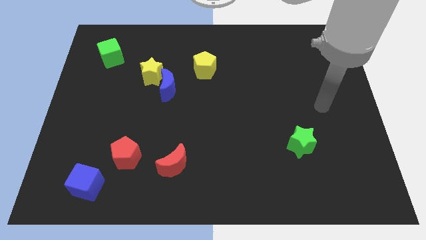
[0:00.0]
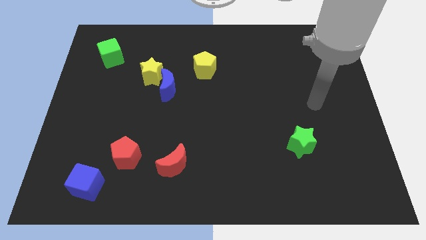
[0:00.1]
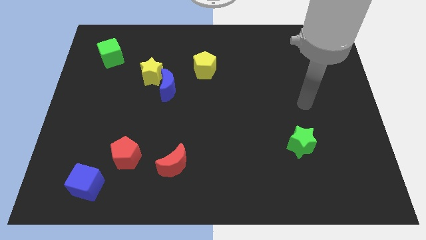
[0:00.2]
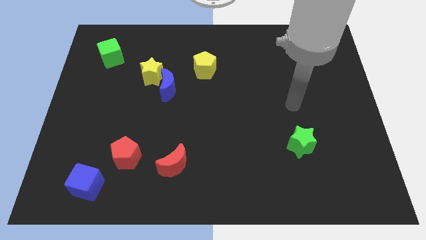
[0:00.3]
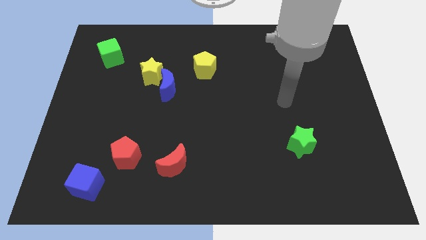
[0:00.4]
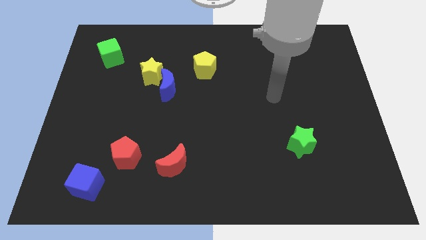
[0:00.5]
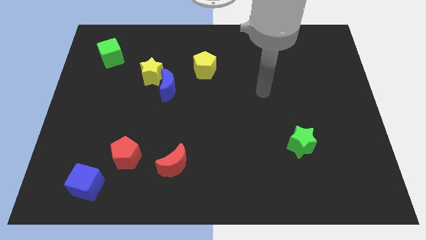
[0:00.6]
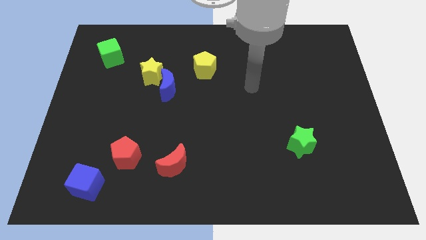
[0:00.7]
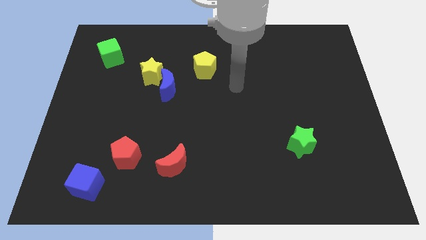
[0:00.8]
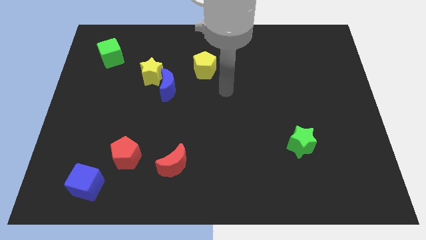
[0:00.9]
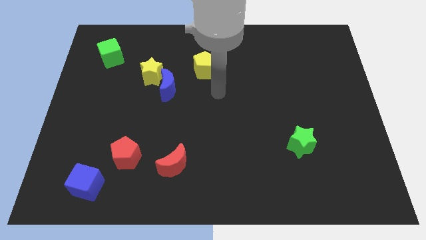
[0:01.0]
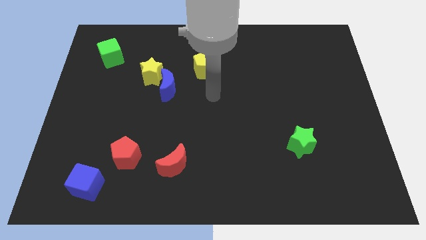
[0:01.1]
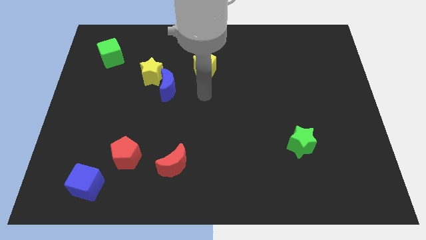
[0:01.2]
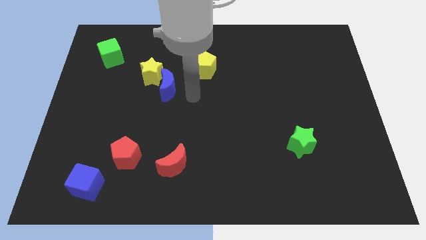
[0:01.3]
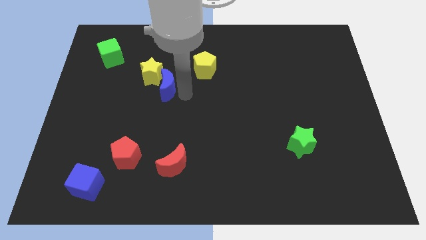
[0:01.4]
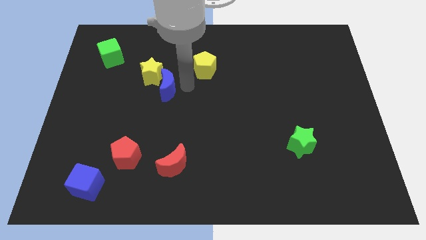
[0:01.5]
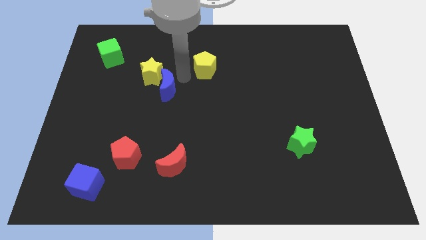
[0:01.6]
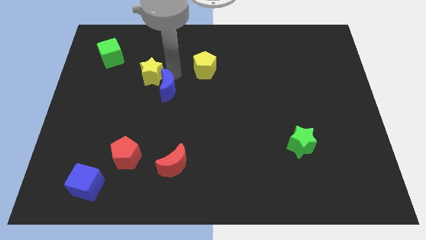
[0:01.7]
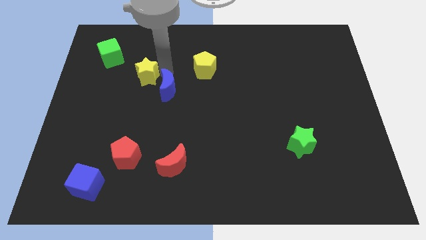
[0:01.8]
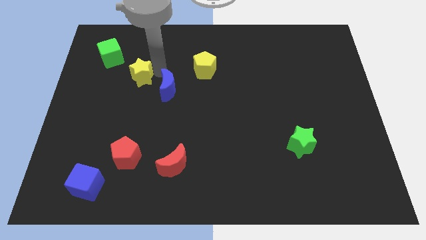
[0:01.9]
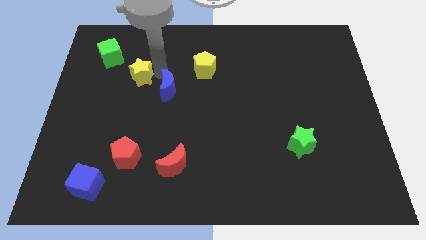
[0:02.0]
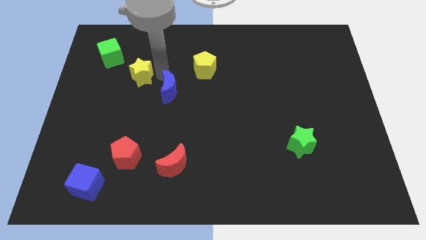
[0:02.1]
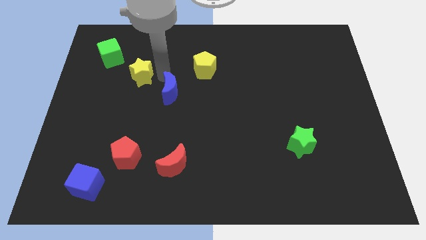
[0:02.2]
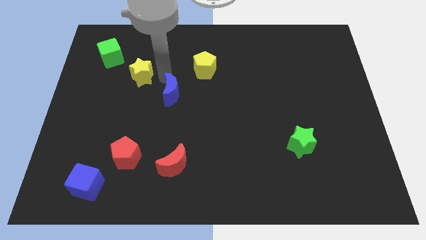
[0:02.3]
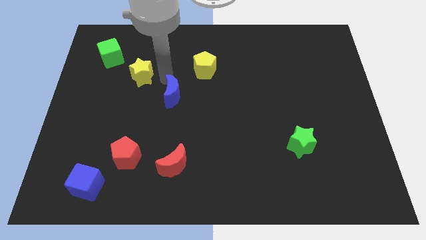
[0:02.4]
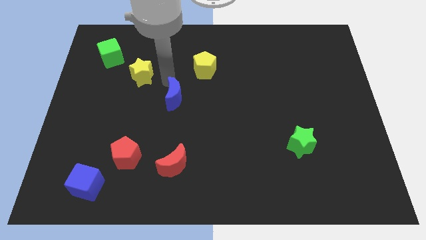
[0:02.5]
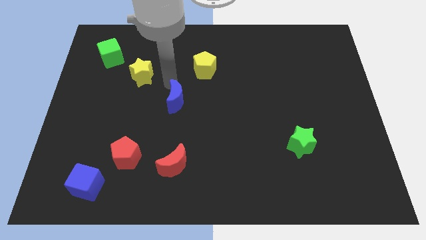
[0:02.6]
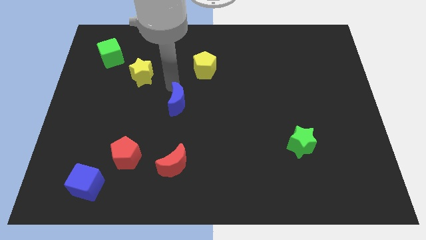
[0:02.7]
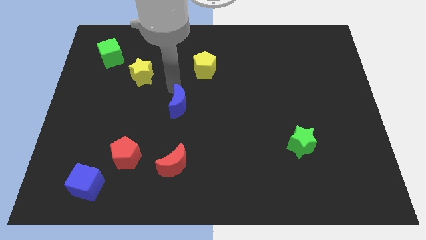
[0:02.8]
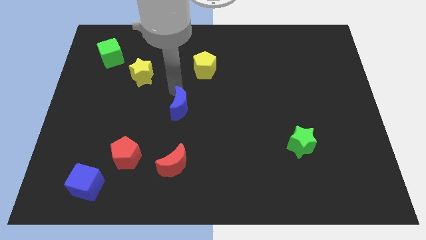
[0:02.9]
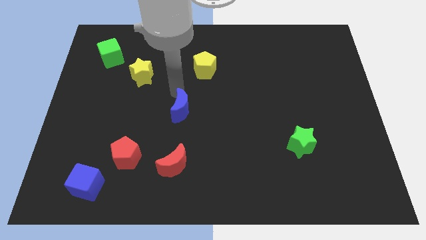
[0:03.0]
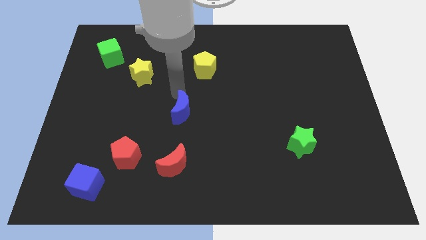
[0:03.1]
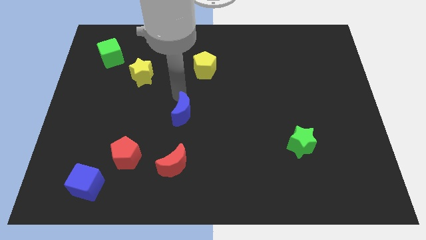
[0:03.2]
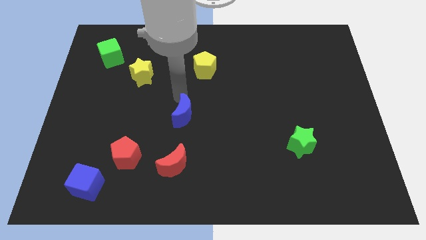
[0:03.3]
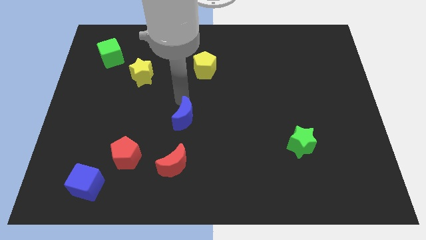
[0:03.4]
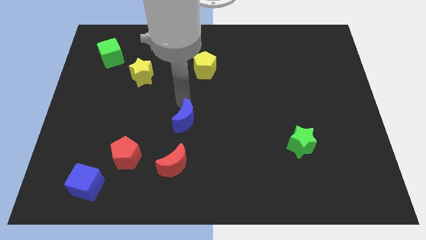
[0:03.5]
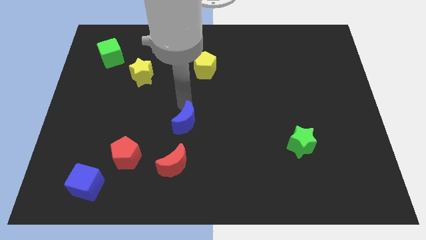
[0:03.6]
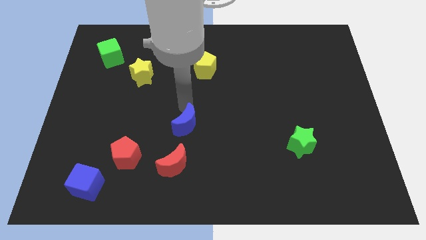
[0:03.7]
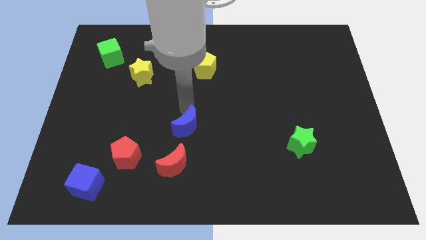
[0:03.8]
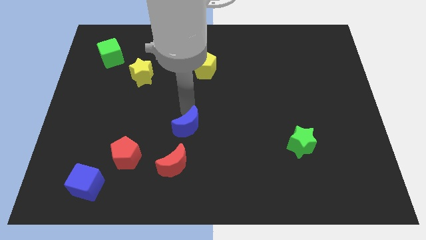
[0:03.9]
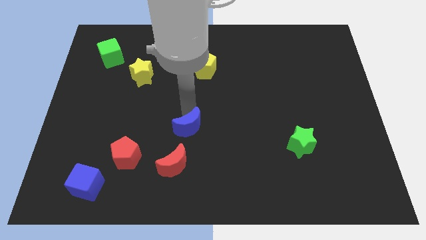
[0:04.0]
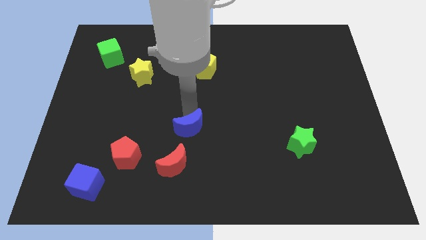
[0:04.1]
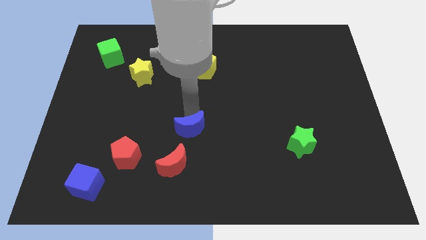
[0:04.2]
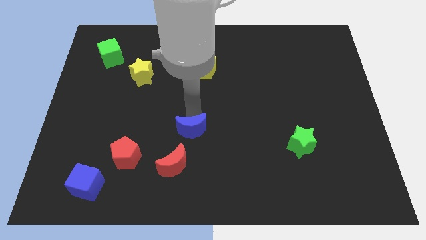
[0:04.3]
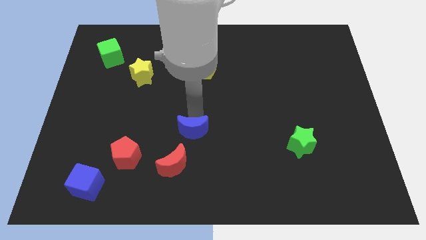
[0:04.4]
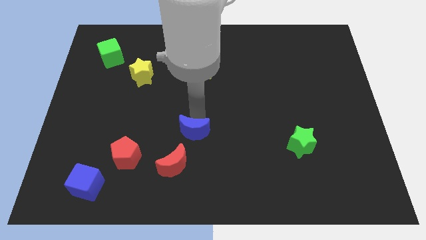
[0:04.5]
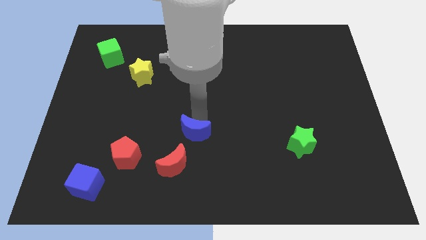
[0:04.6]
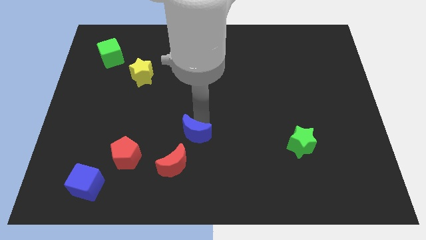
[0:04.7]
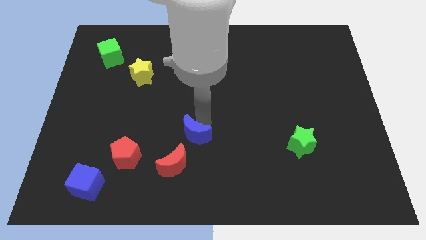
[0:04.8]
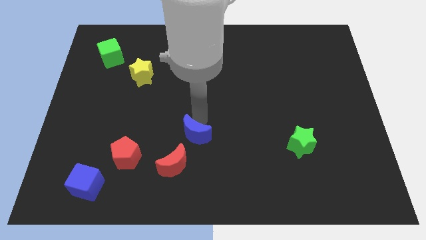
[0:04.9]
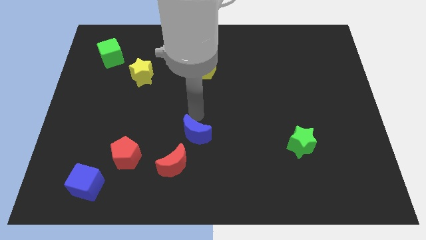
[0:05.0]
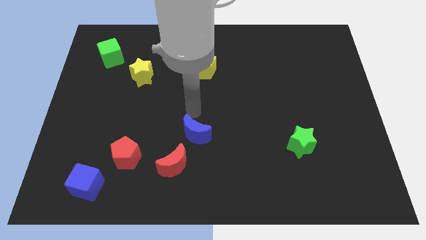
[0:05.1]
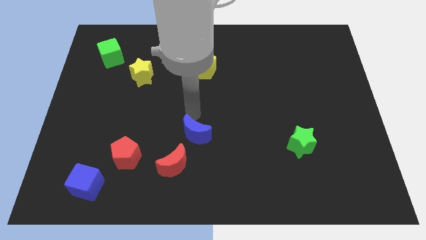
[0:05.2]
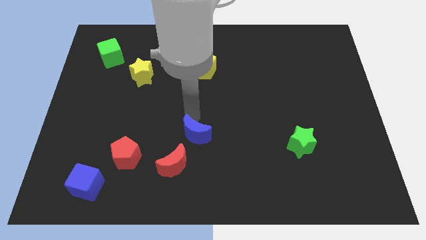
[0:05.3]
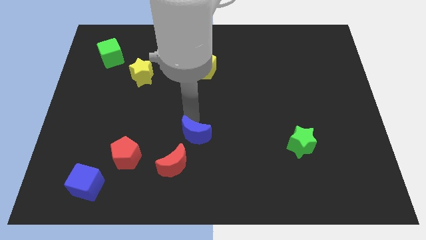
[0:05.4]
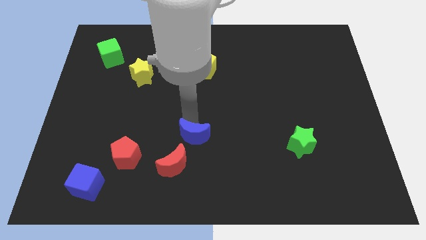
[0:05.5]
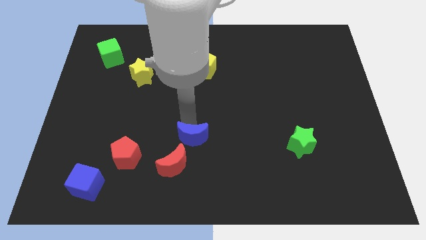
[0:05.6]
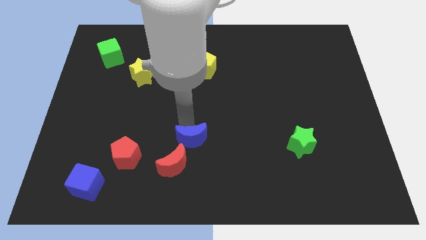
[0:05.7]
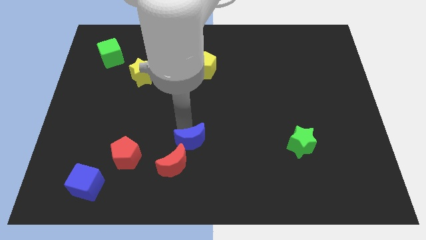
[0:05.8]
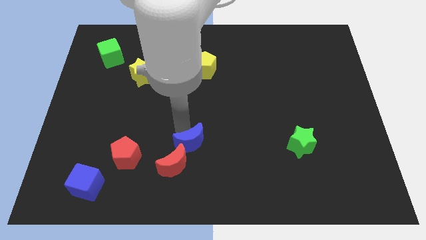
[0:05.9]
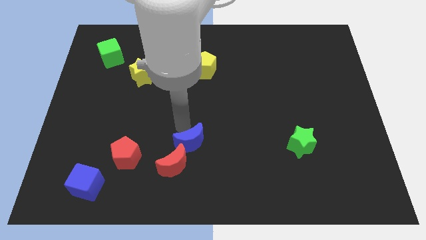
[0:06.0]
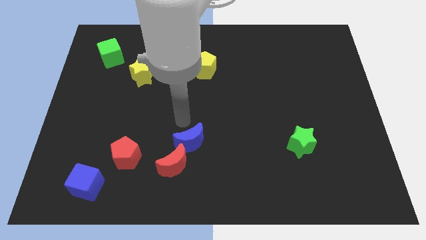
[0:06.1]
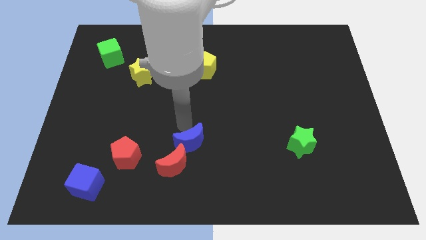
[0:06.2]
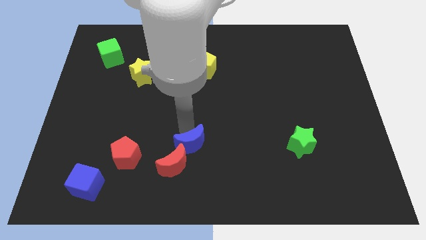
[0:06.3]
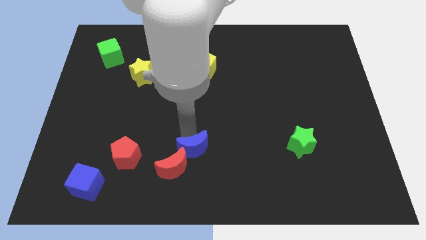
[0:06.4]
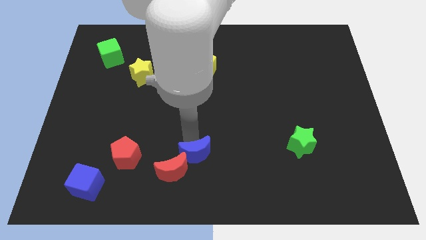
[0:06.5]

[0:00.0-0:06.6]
push the blue moon to the bottom
